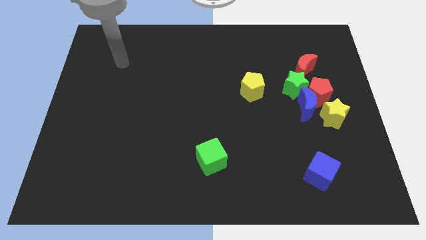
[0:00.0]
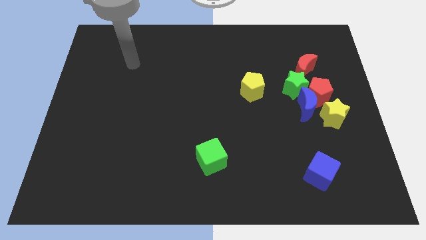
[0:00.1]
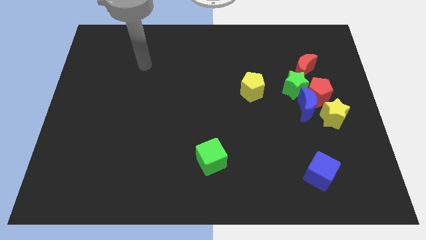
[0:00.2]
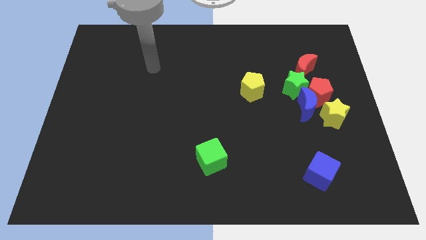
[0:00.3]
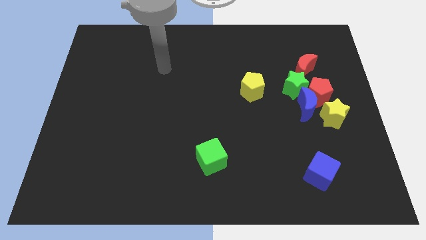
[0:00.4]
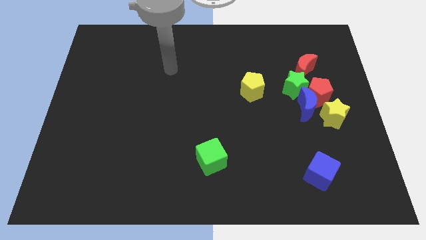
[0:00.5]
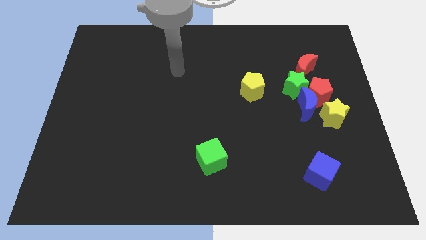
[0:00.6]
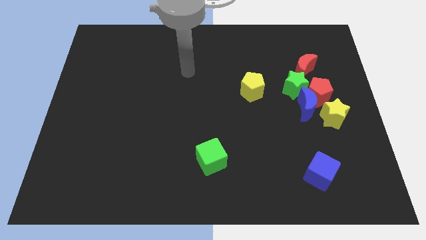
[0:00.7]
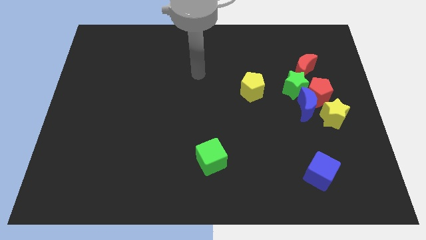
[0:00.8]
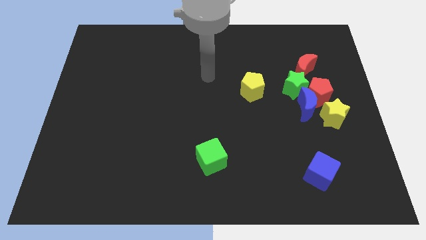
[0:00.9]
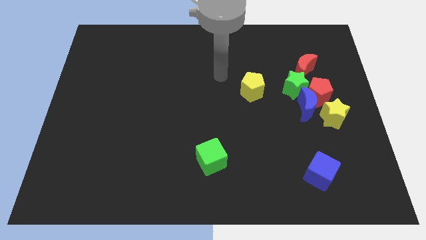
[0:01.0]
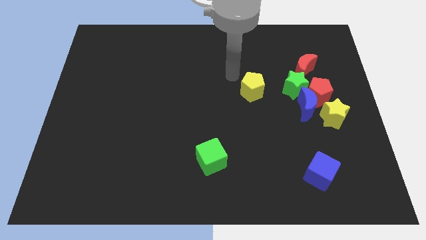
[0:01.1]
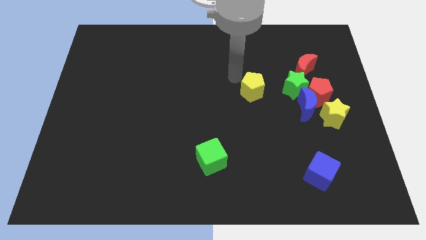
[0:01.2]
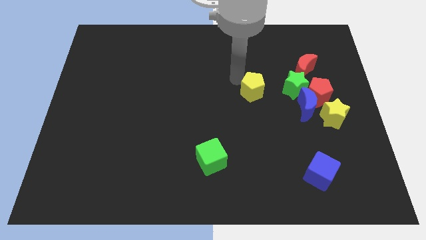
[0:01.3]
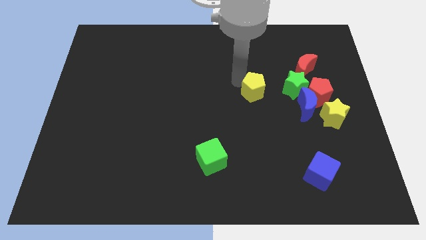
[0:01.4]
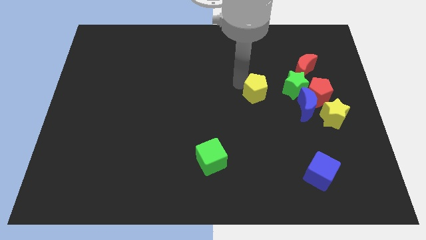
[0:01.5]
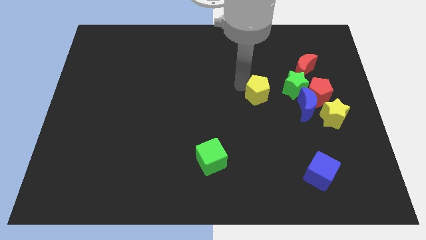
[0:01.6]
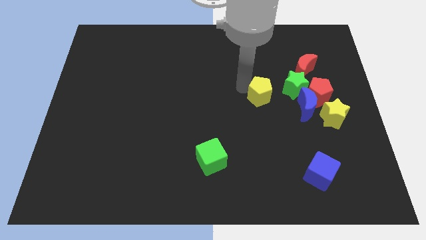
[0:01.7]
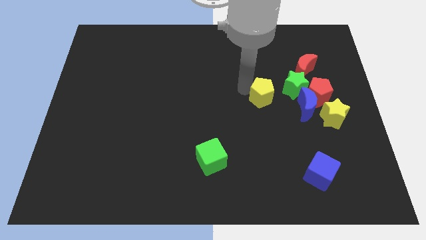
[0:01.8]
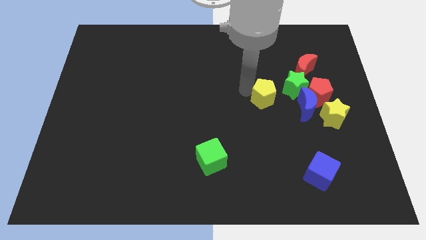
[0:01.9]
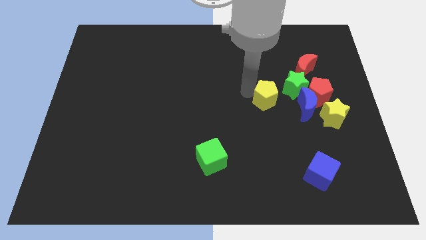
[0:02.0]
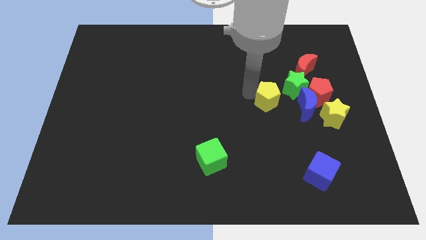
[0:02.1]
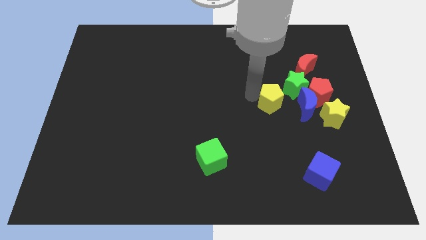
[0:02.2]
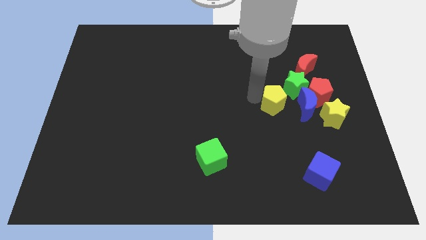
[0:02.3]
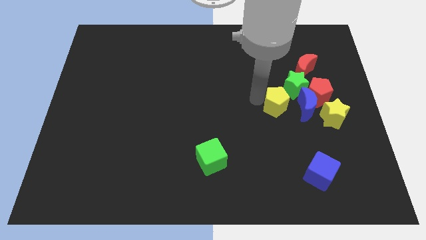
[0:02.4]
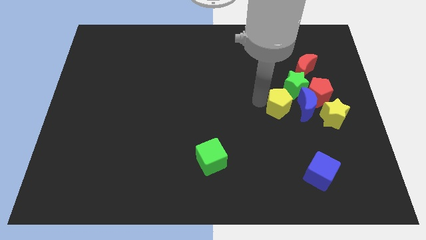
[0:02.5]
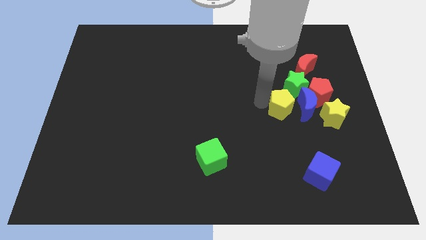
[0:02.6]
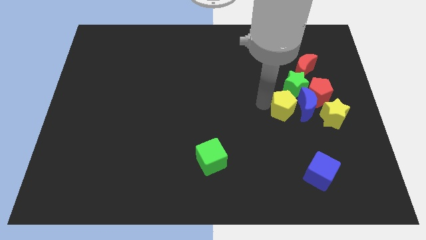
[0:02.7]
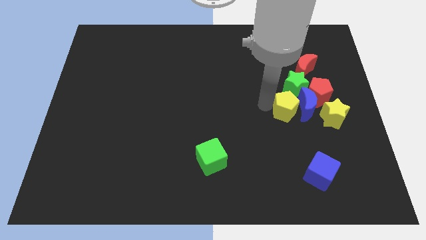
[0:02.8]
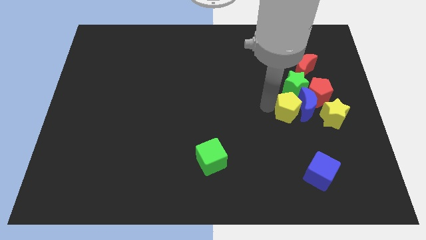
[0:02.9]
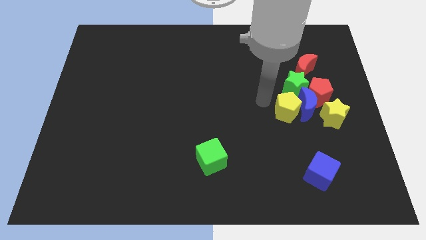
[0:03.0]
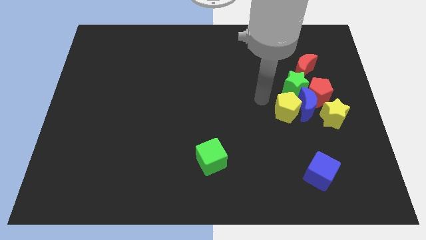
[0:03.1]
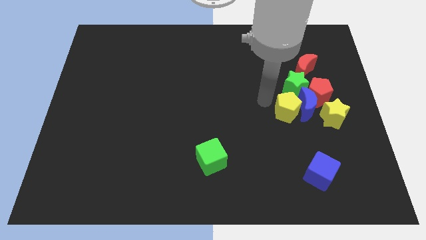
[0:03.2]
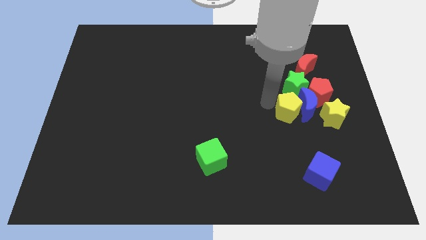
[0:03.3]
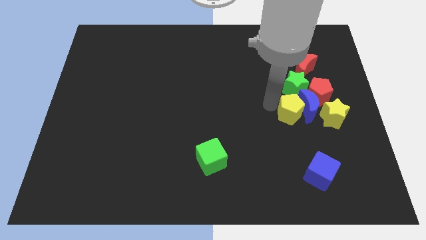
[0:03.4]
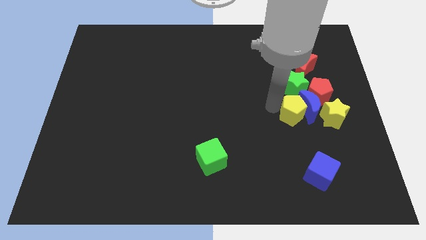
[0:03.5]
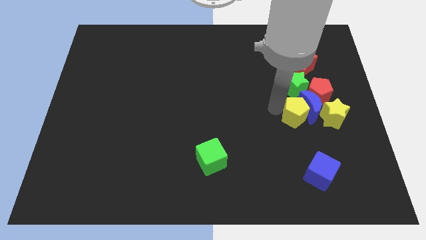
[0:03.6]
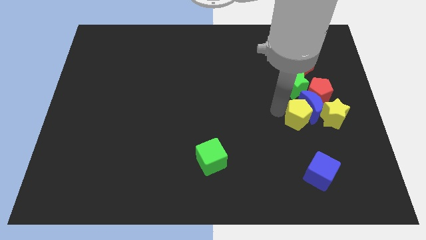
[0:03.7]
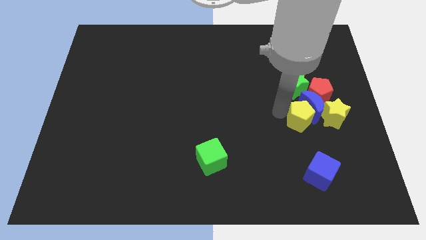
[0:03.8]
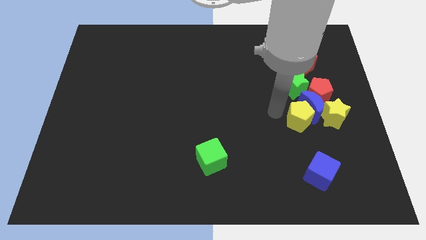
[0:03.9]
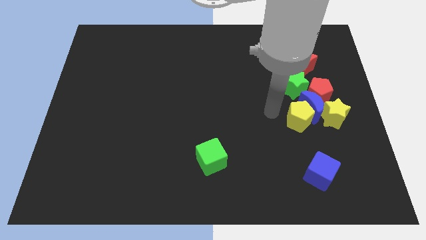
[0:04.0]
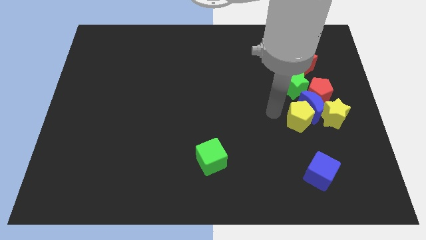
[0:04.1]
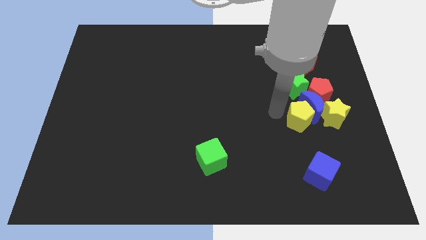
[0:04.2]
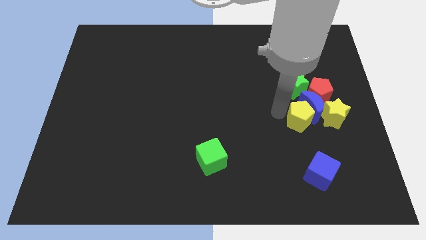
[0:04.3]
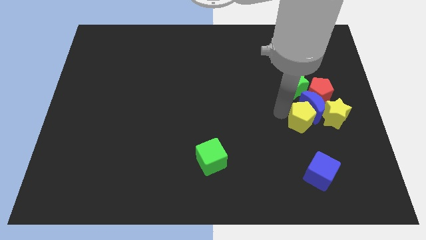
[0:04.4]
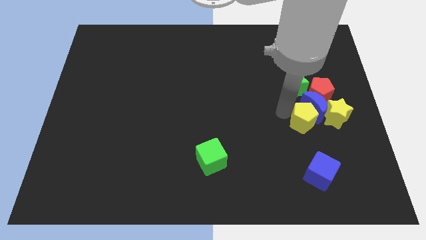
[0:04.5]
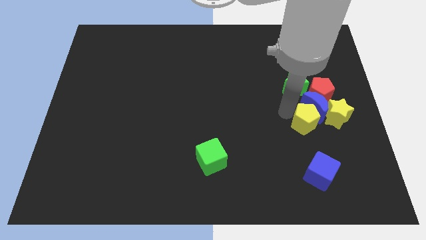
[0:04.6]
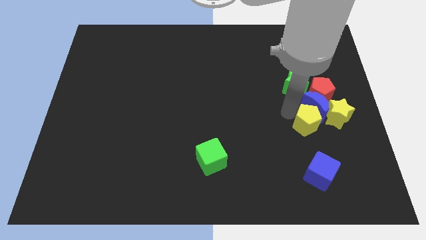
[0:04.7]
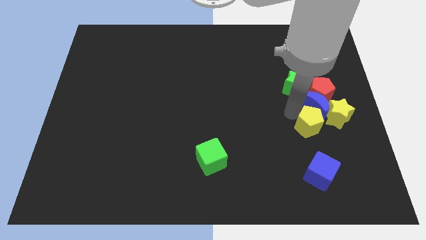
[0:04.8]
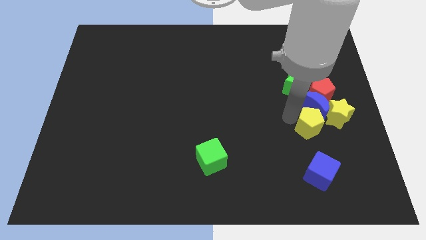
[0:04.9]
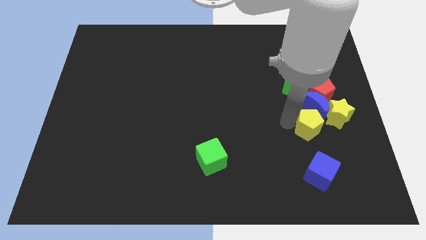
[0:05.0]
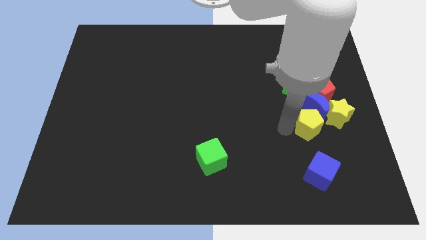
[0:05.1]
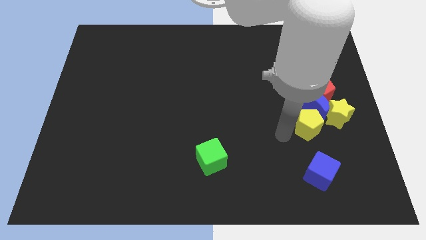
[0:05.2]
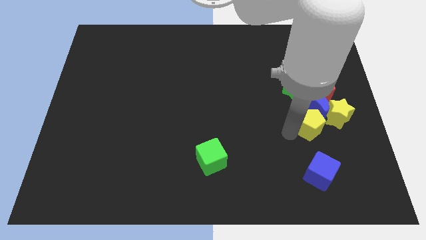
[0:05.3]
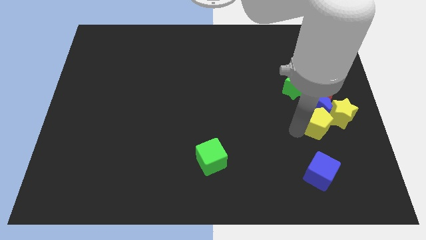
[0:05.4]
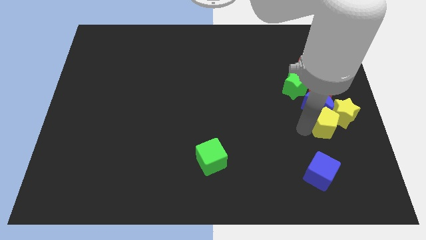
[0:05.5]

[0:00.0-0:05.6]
slide the yellow pentagon towards the yellow star
